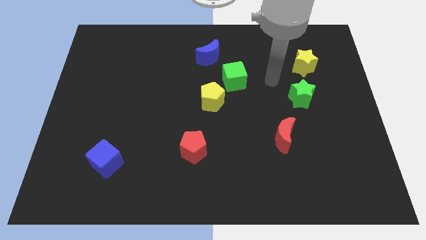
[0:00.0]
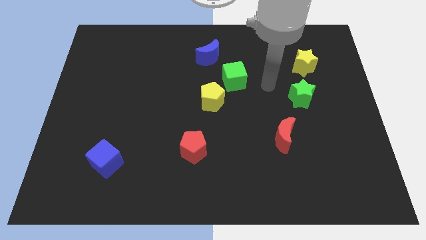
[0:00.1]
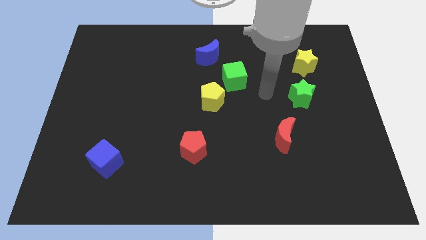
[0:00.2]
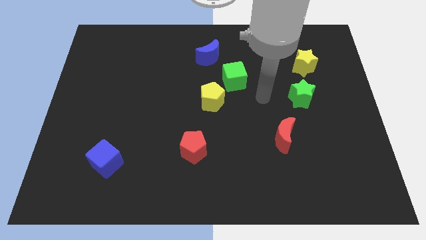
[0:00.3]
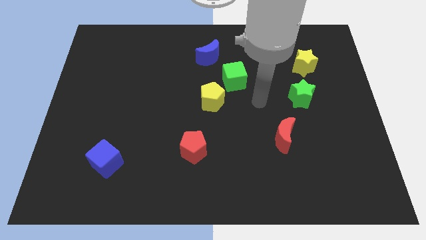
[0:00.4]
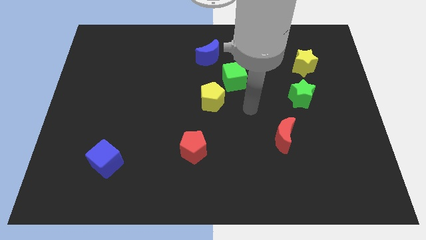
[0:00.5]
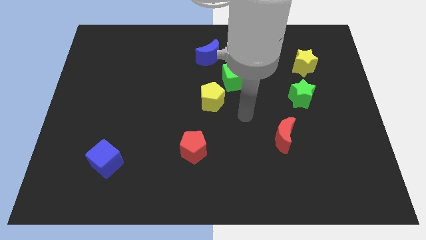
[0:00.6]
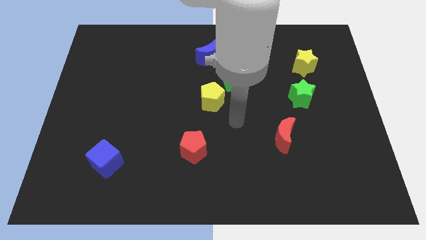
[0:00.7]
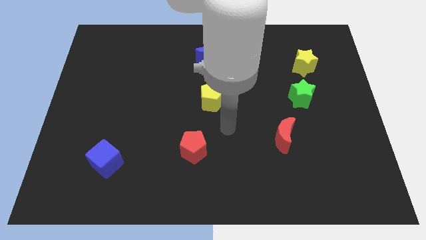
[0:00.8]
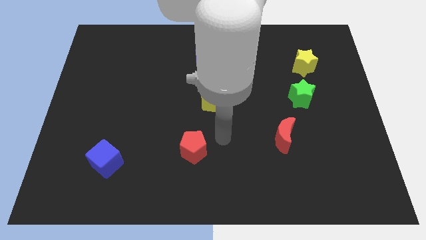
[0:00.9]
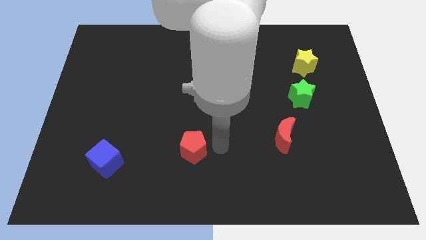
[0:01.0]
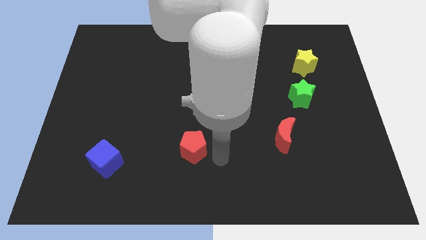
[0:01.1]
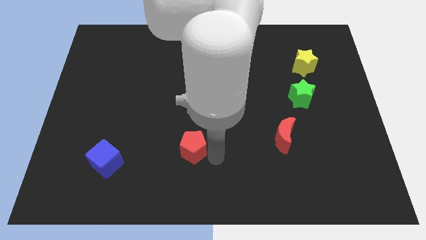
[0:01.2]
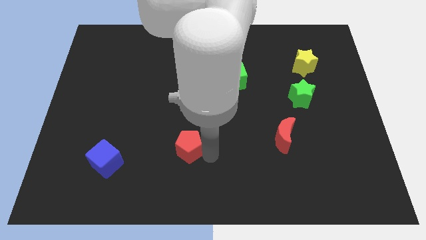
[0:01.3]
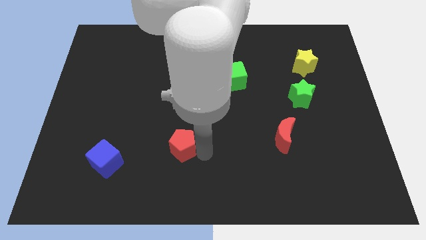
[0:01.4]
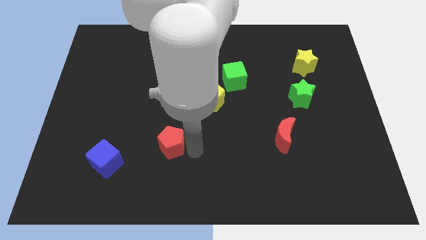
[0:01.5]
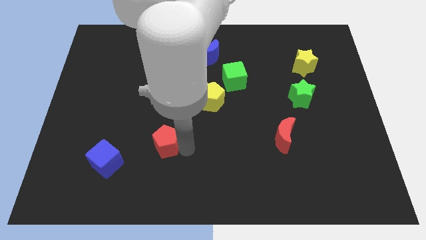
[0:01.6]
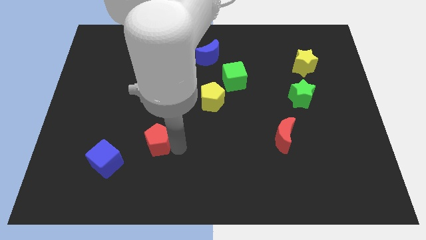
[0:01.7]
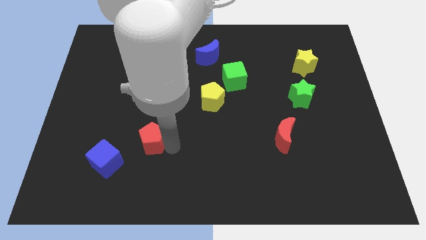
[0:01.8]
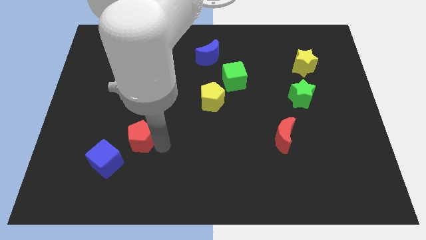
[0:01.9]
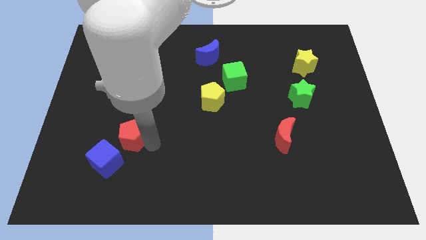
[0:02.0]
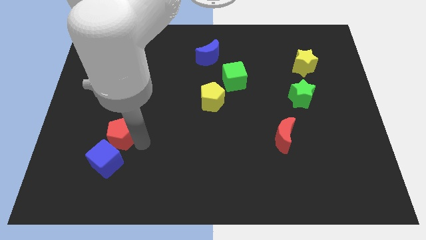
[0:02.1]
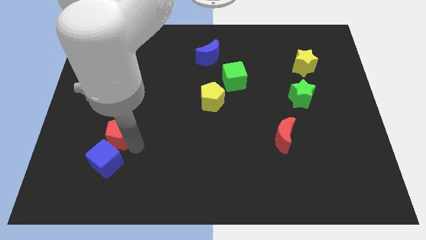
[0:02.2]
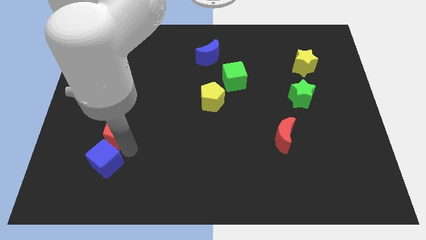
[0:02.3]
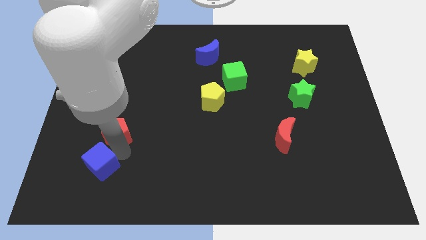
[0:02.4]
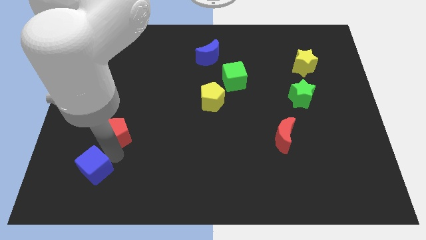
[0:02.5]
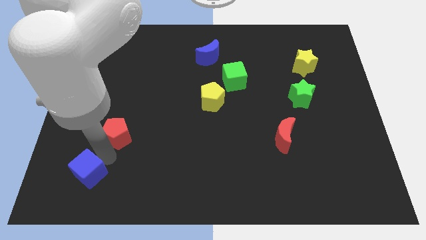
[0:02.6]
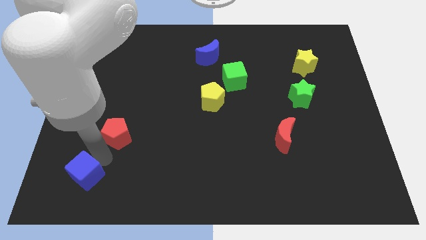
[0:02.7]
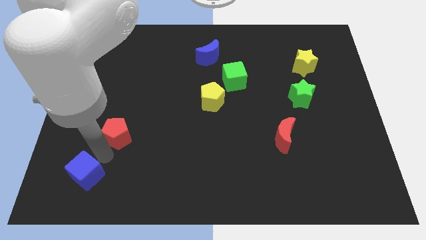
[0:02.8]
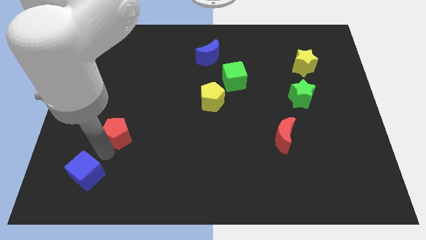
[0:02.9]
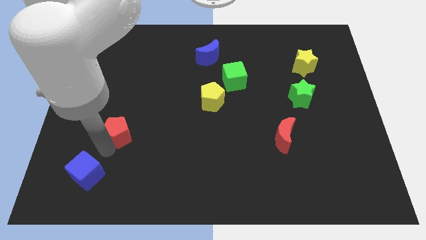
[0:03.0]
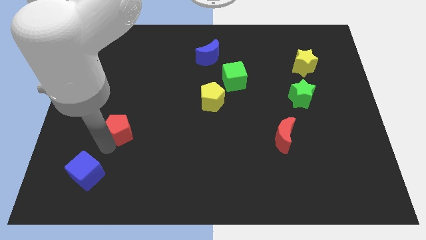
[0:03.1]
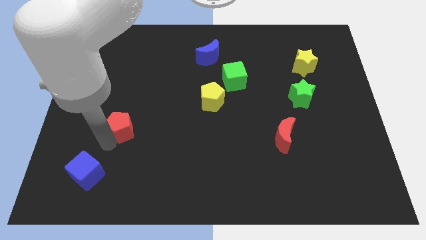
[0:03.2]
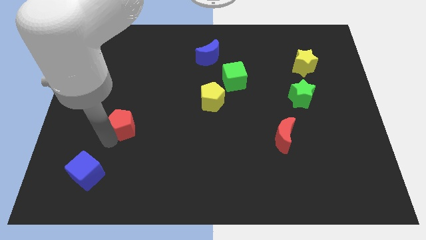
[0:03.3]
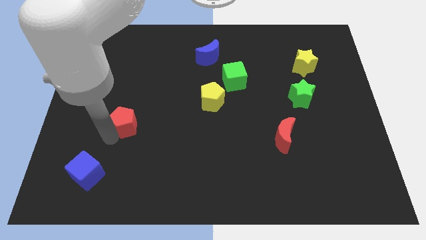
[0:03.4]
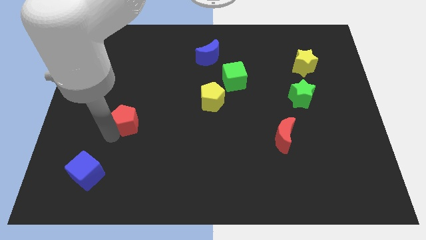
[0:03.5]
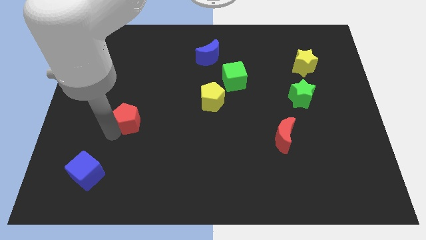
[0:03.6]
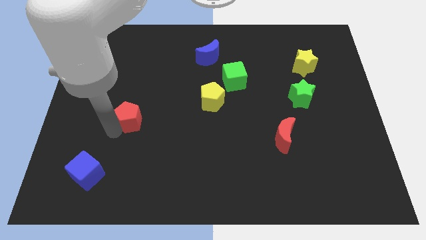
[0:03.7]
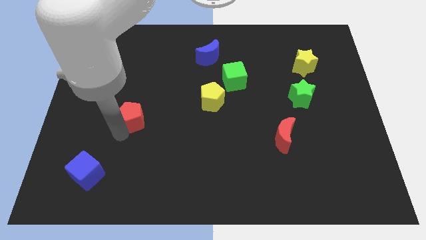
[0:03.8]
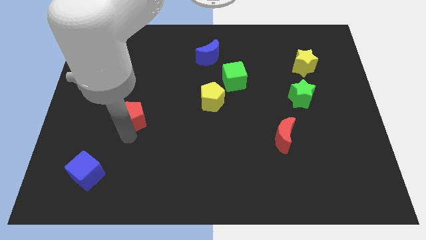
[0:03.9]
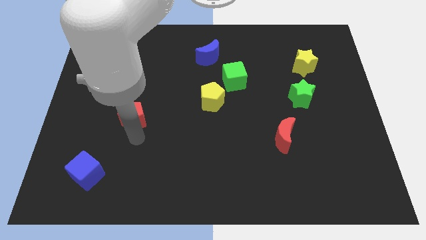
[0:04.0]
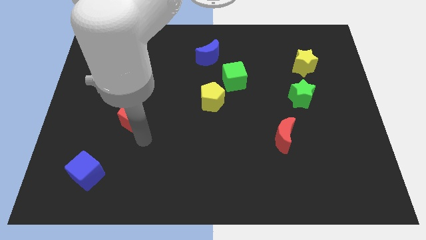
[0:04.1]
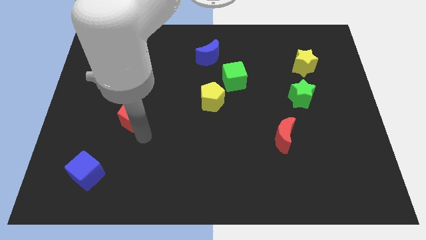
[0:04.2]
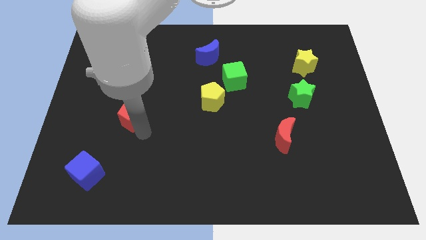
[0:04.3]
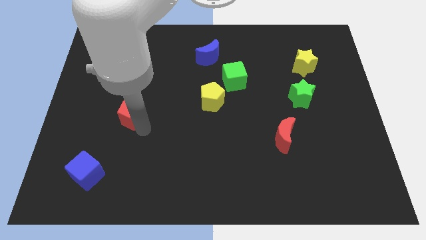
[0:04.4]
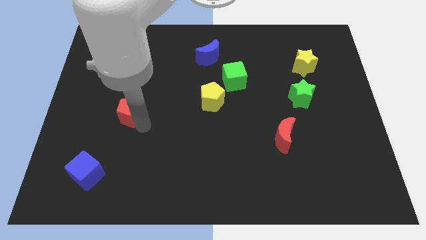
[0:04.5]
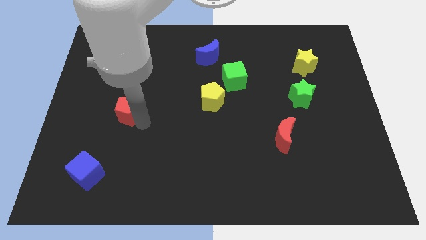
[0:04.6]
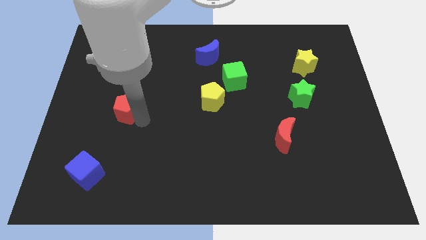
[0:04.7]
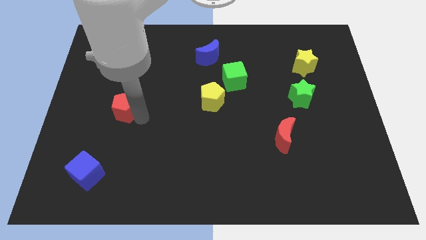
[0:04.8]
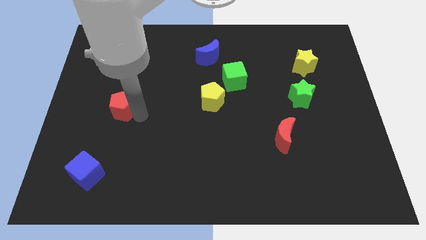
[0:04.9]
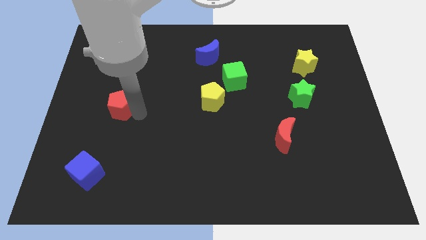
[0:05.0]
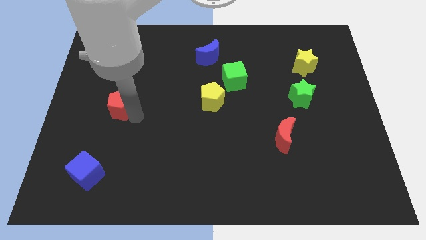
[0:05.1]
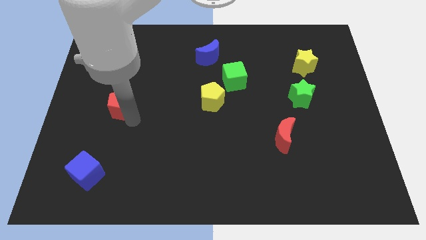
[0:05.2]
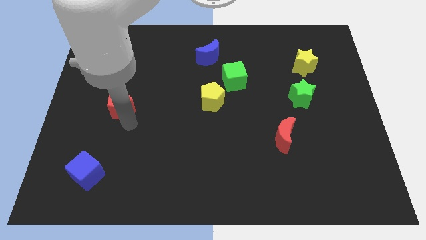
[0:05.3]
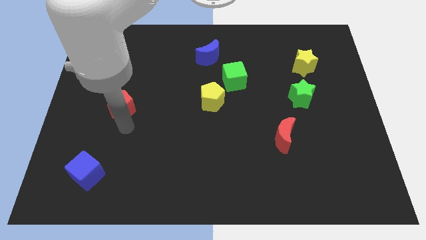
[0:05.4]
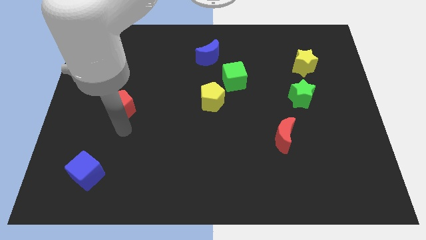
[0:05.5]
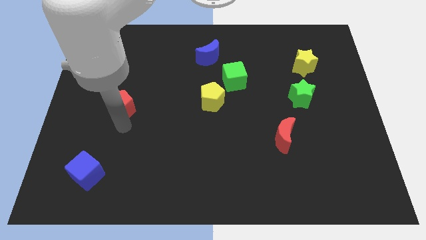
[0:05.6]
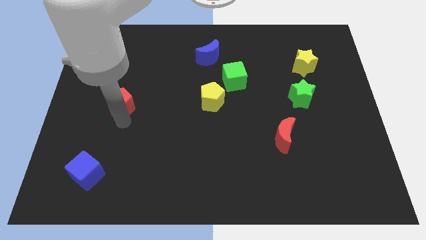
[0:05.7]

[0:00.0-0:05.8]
push the red pentagon upwards and left diagonally

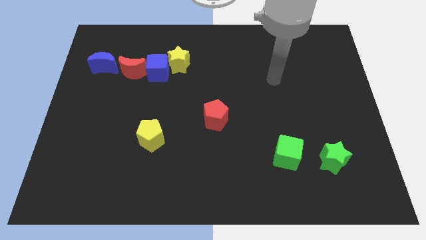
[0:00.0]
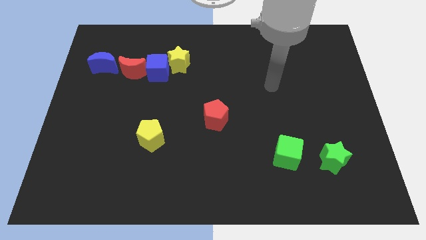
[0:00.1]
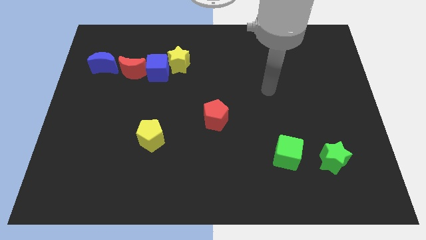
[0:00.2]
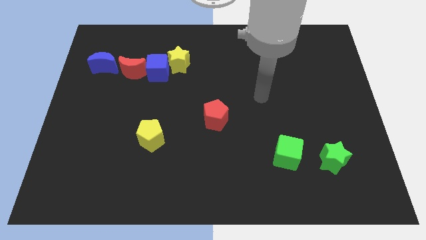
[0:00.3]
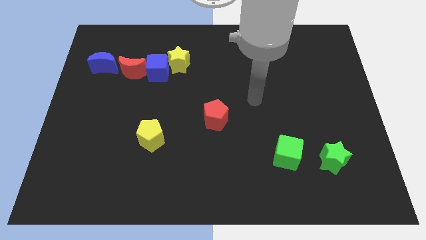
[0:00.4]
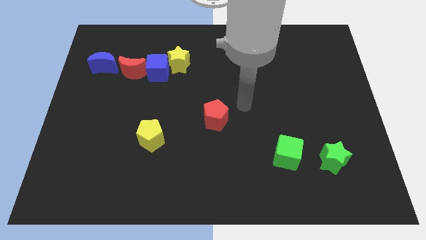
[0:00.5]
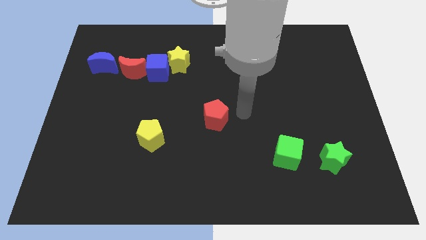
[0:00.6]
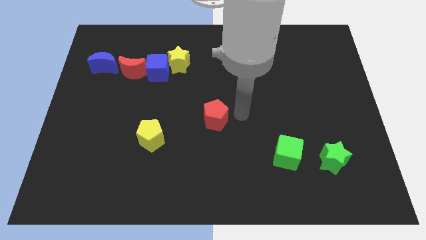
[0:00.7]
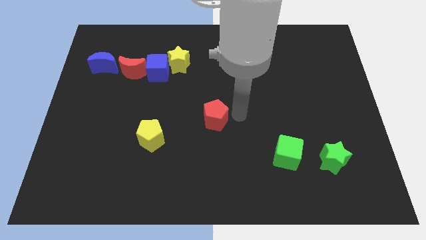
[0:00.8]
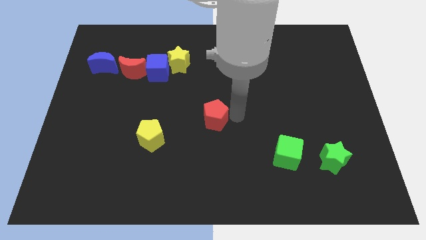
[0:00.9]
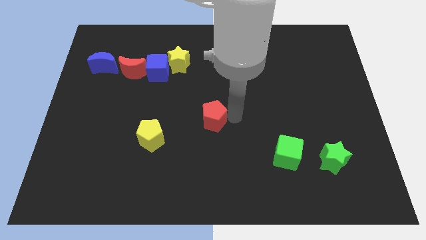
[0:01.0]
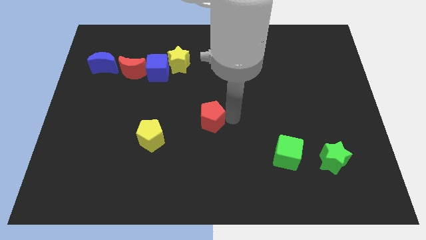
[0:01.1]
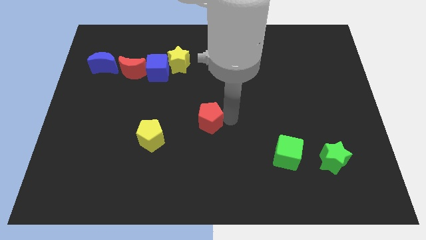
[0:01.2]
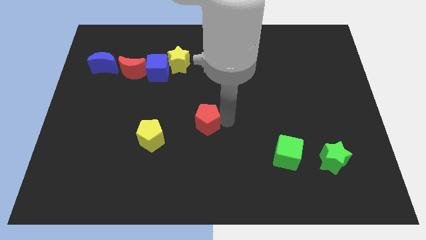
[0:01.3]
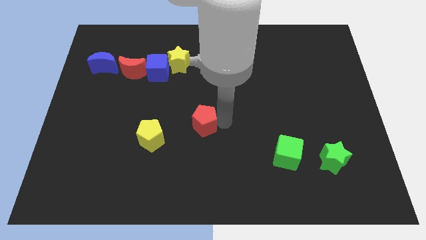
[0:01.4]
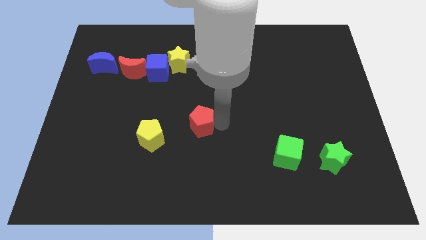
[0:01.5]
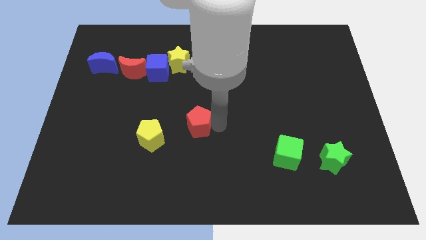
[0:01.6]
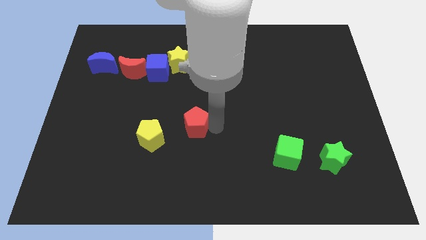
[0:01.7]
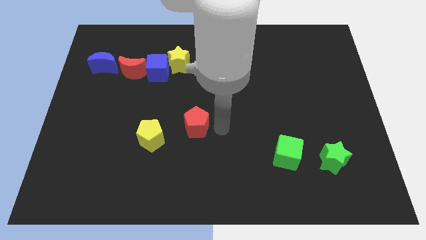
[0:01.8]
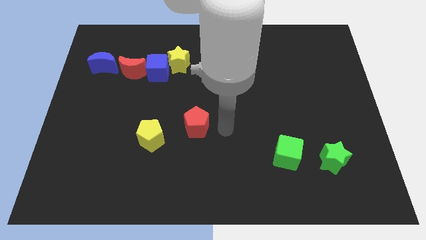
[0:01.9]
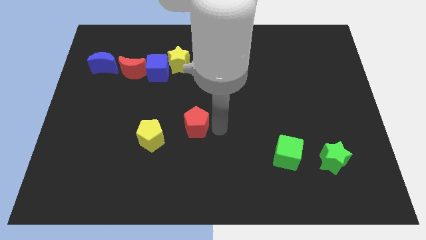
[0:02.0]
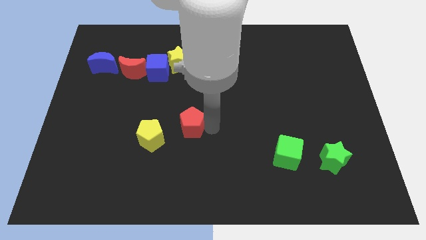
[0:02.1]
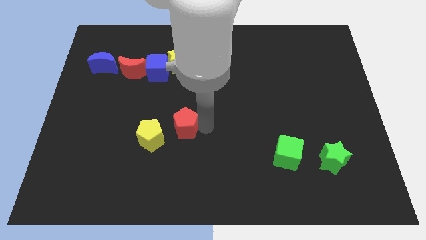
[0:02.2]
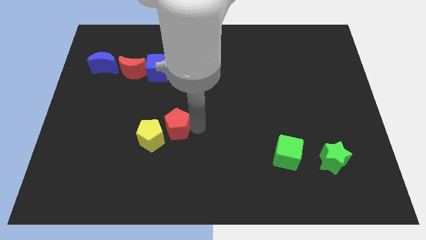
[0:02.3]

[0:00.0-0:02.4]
move the red pentagon left a little
